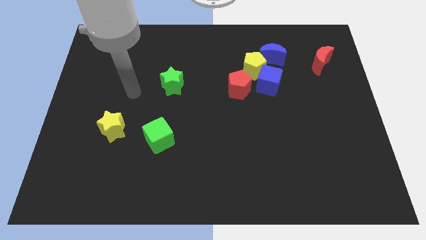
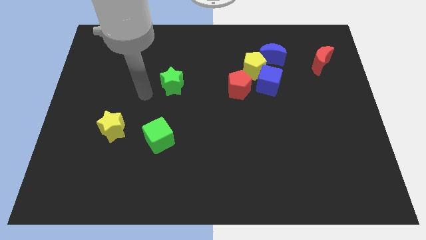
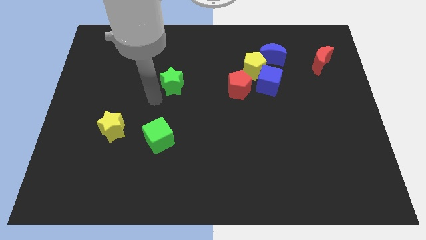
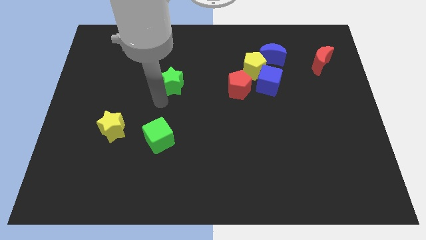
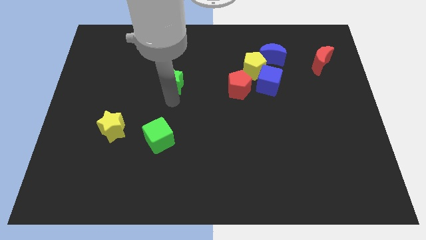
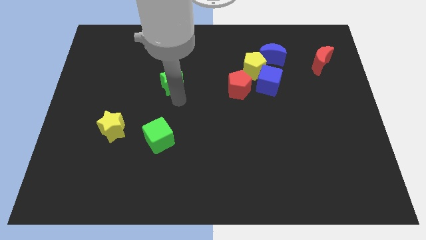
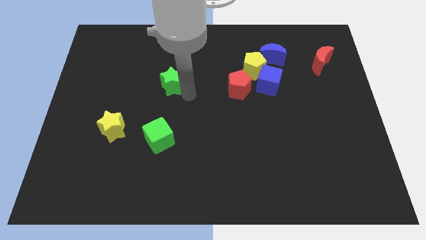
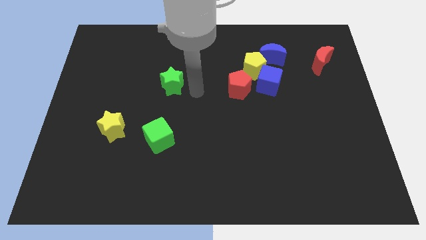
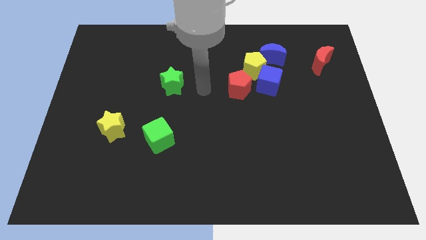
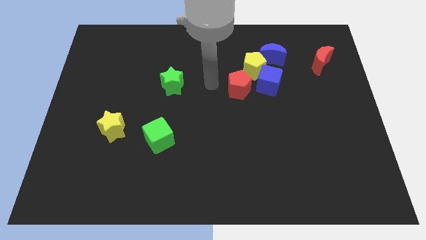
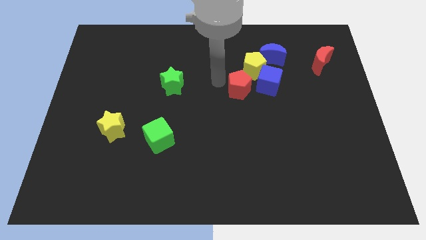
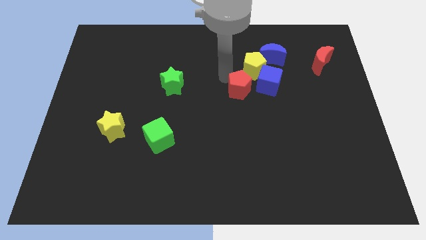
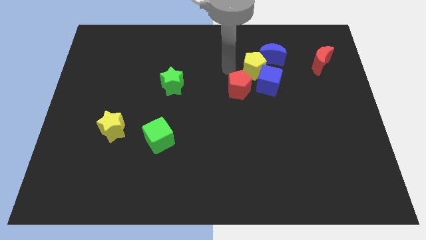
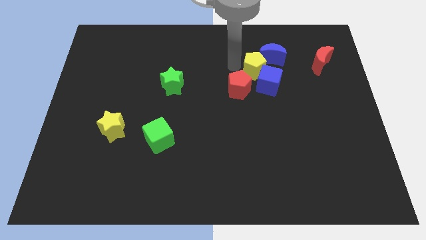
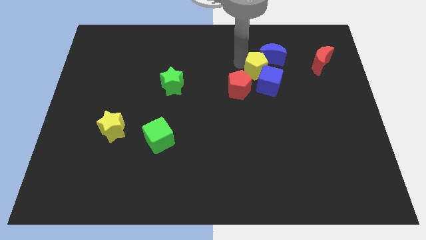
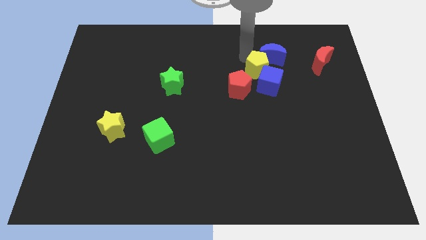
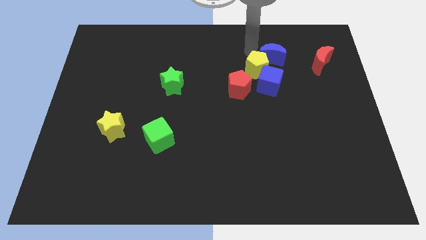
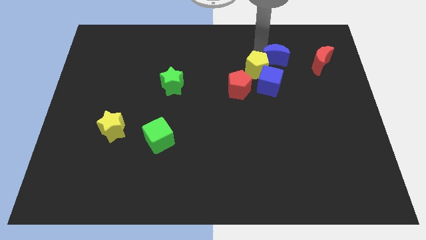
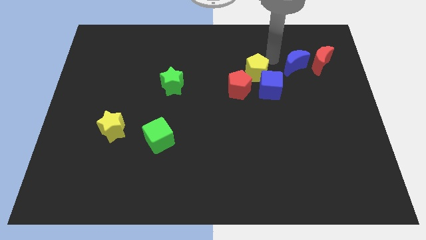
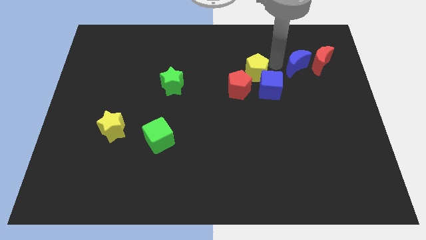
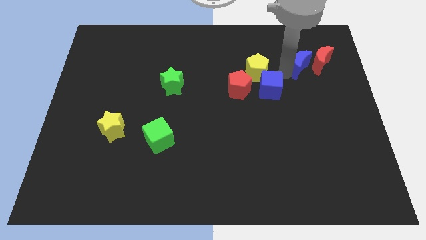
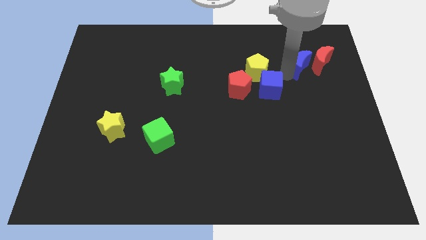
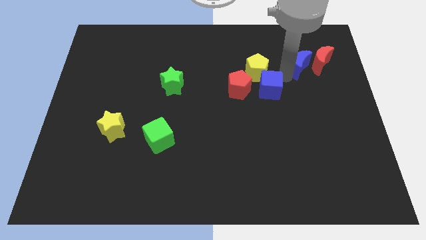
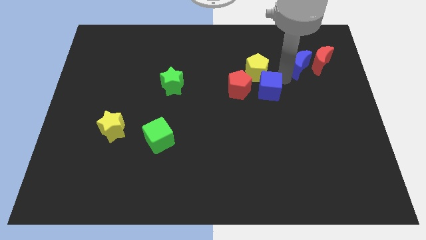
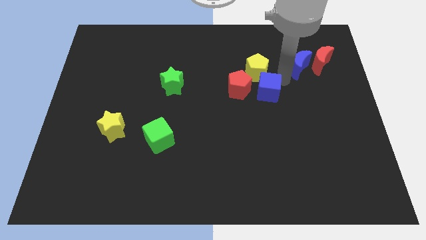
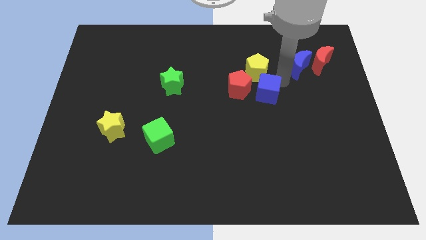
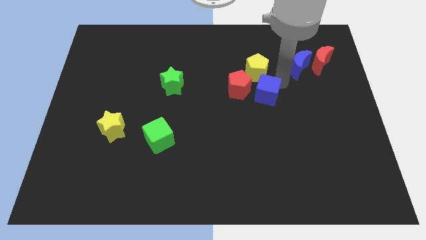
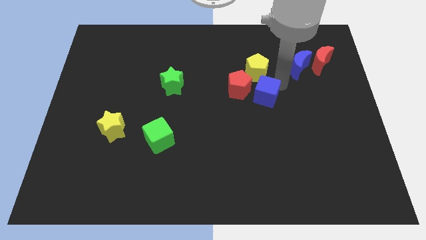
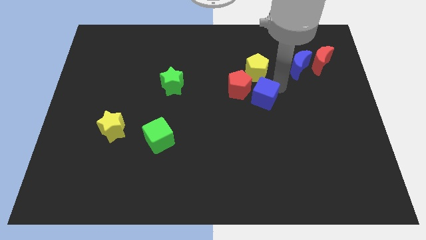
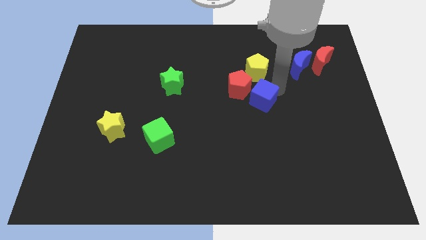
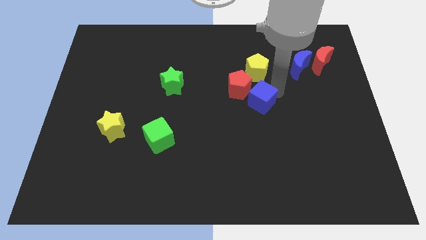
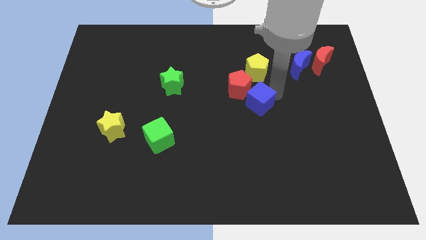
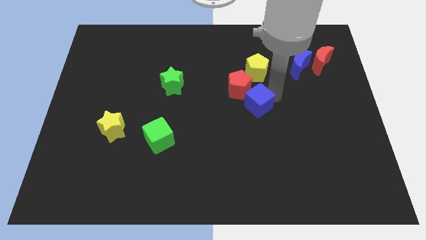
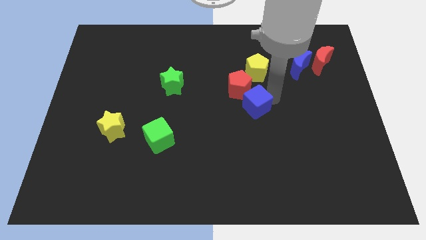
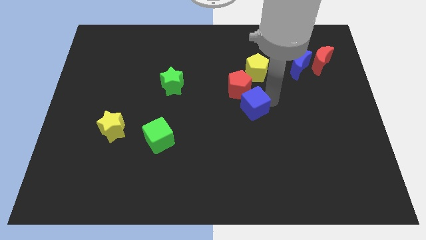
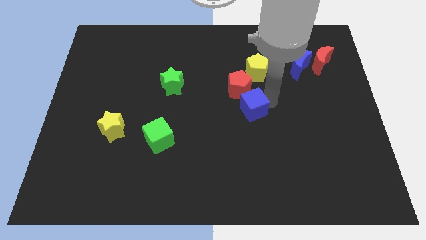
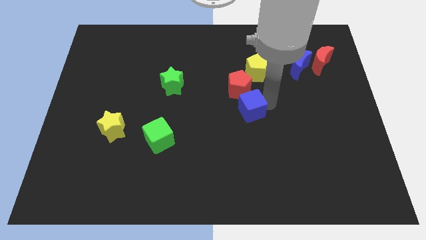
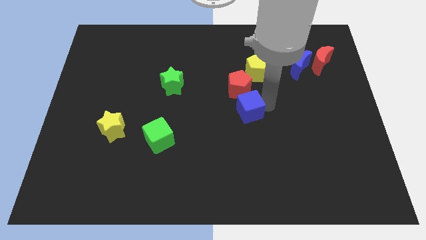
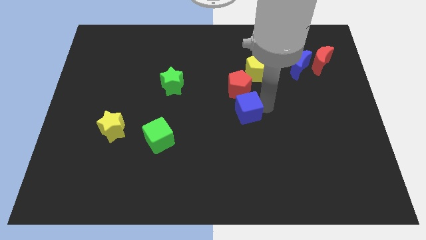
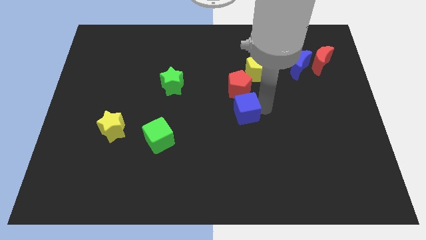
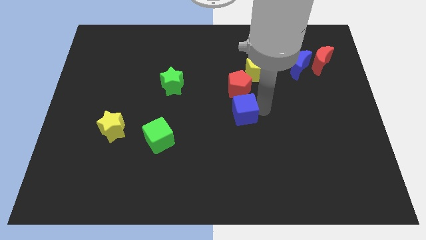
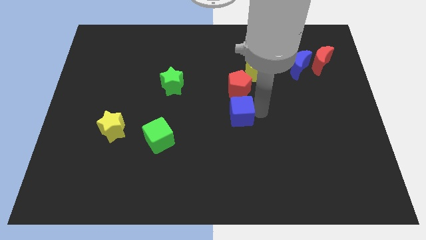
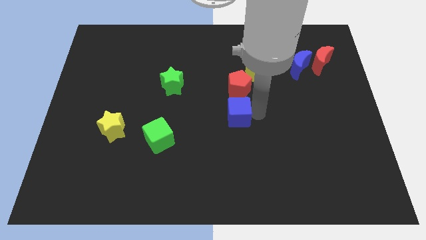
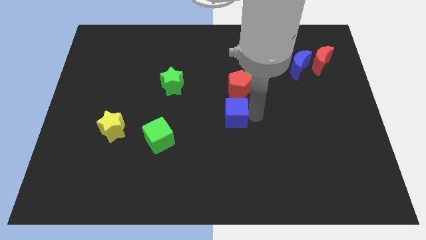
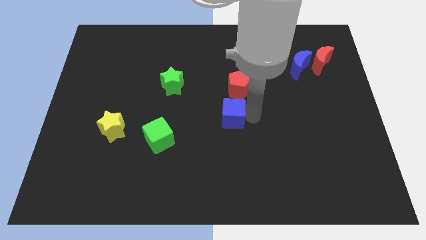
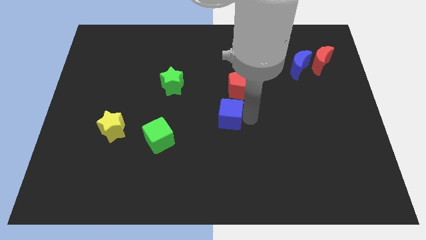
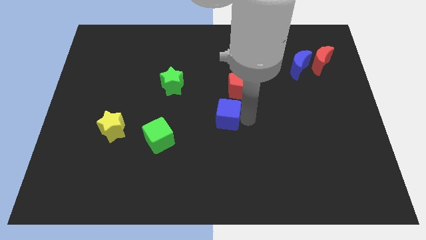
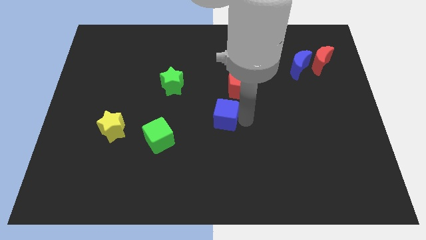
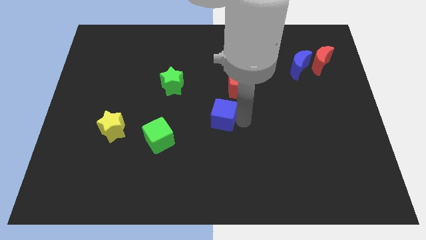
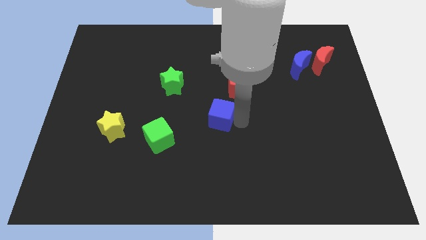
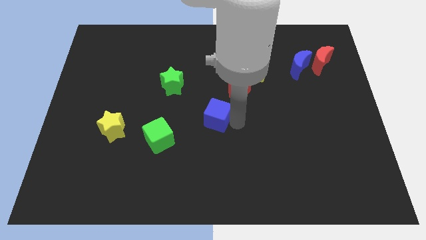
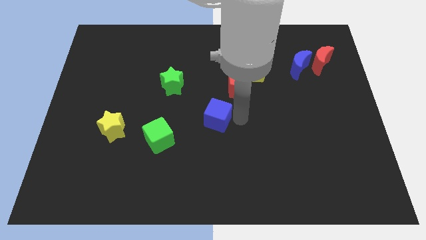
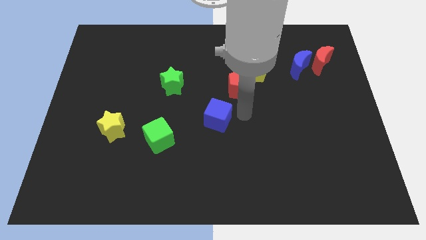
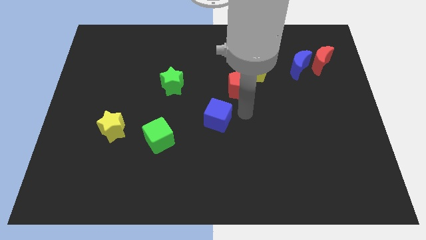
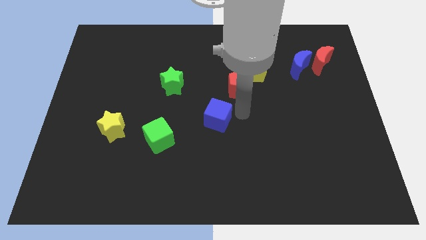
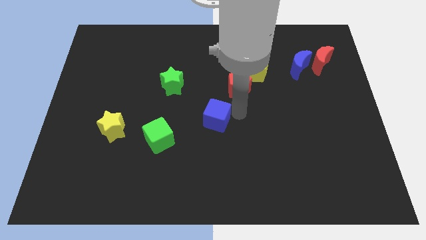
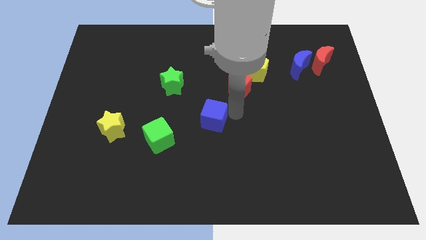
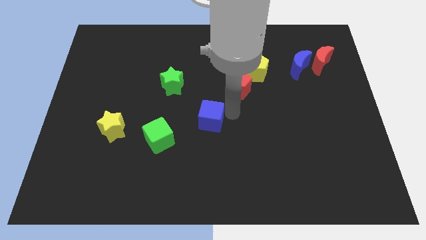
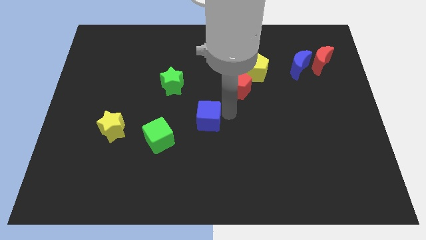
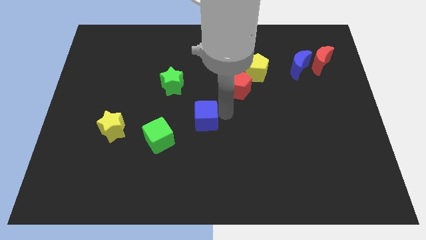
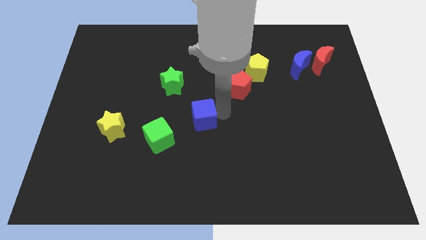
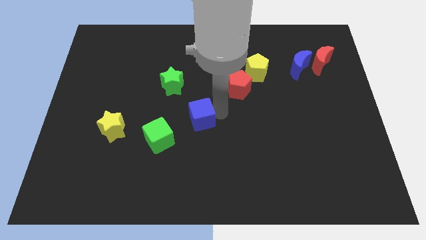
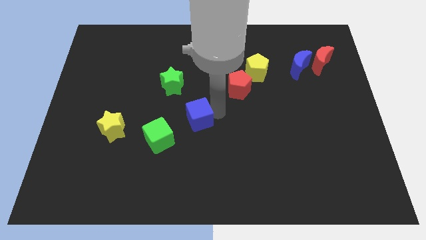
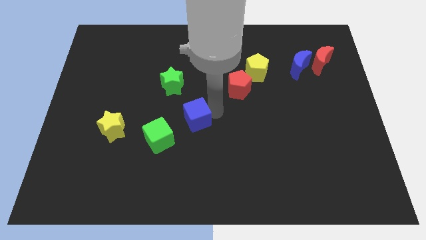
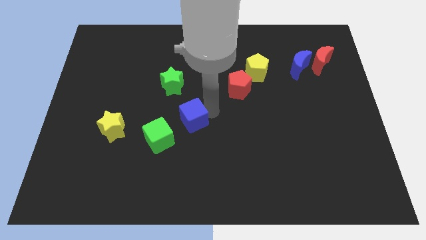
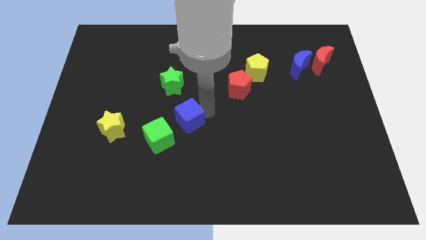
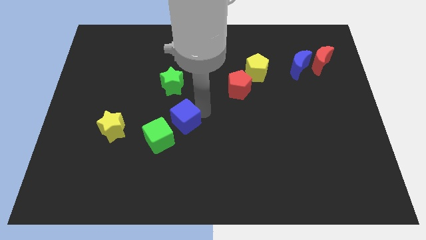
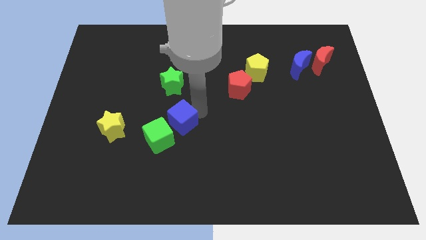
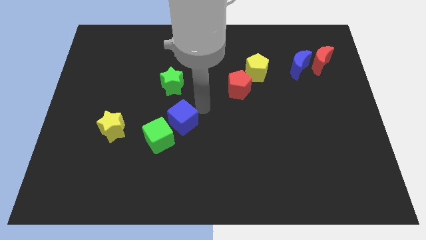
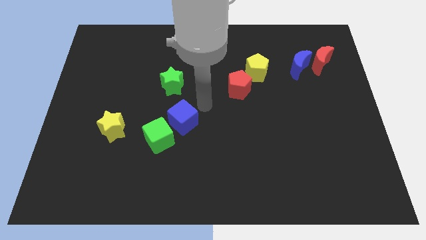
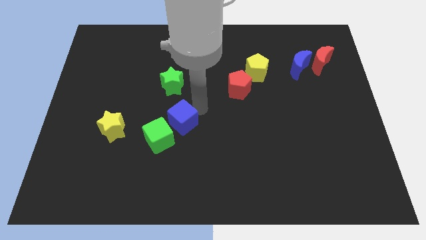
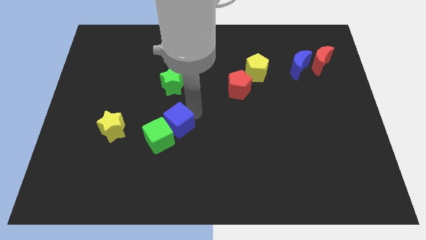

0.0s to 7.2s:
move the blue cube towards the green cube

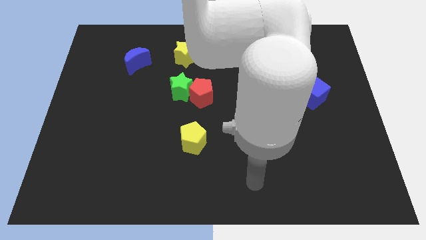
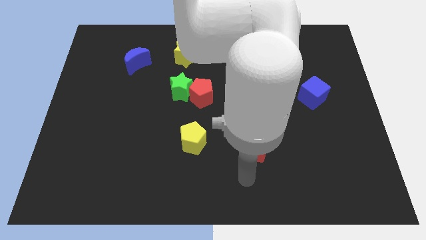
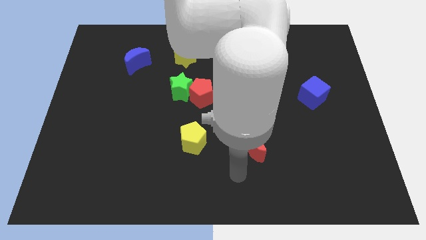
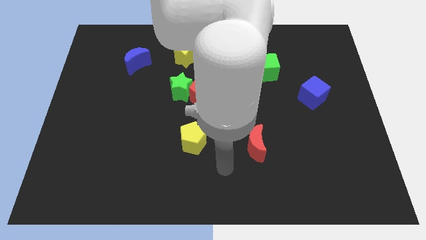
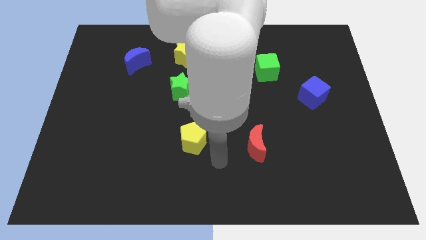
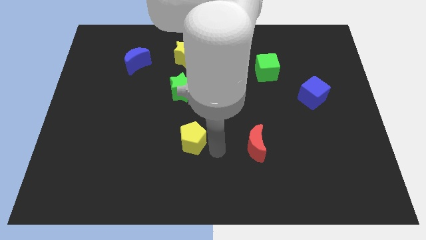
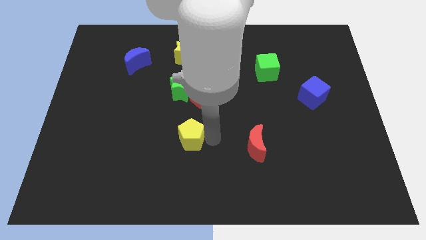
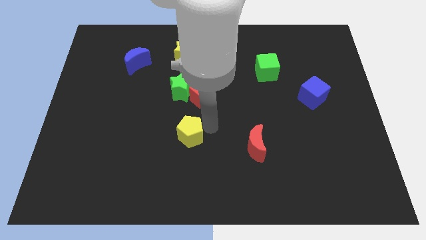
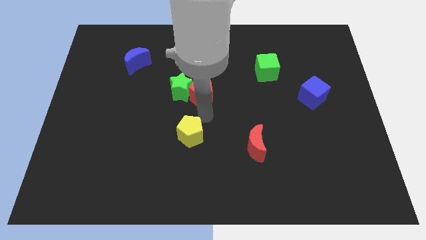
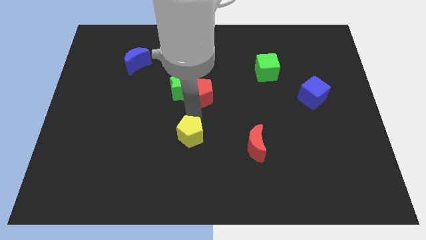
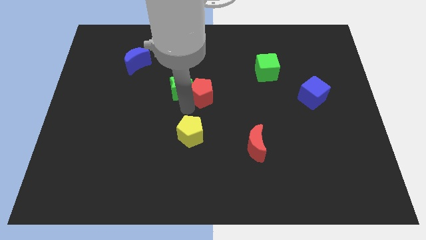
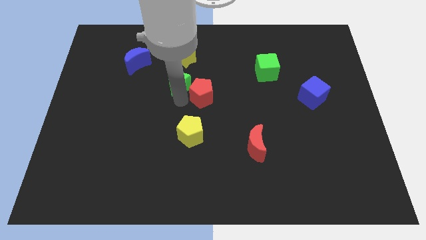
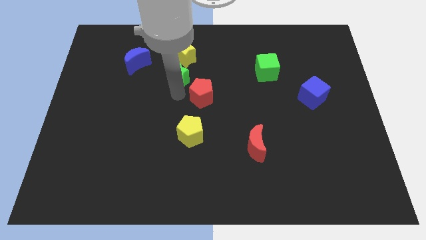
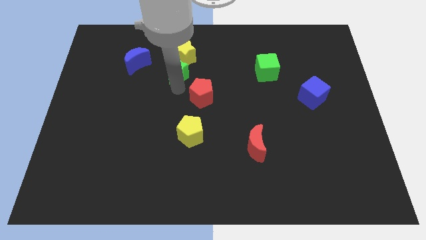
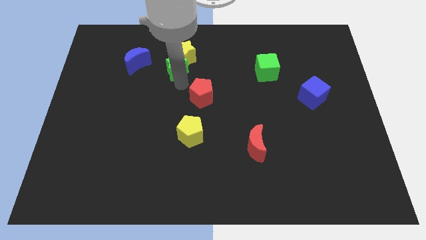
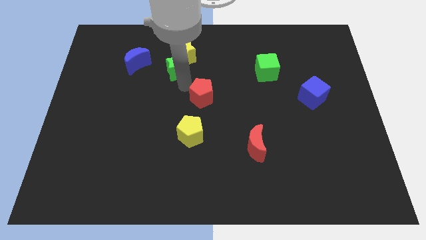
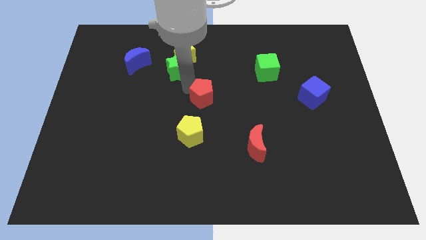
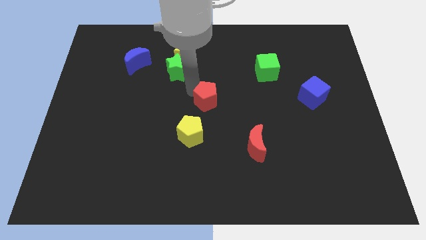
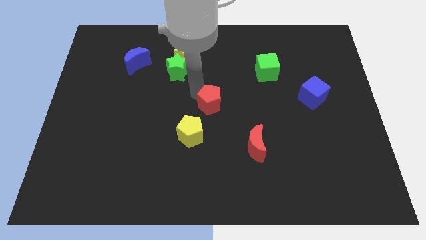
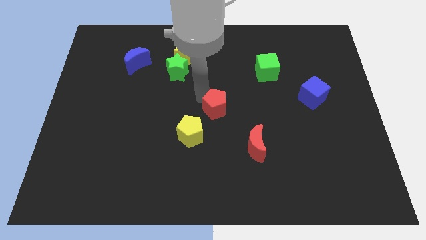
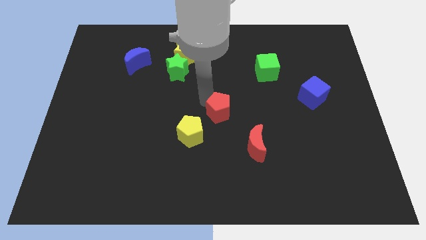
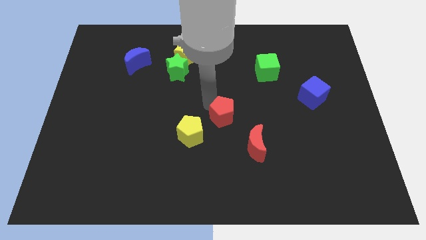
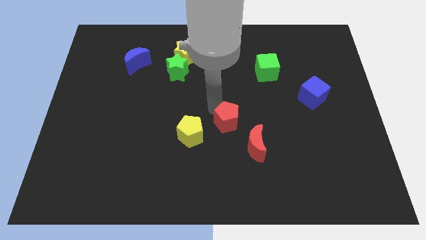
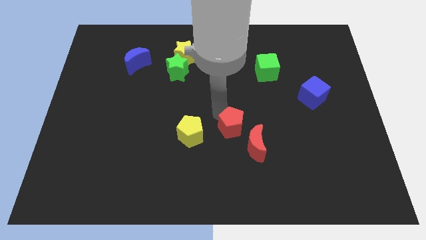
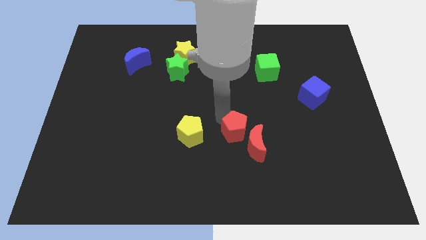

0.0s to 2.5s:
slide the red pentagon close to the red moon
